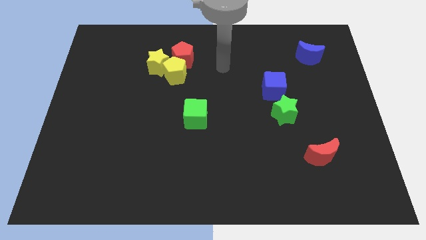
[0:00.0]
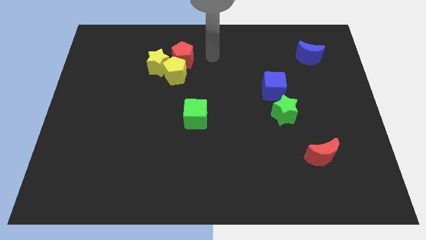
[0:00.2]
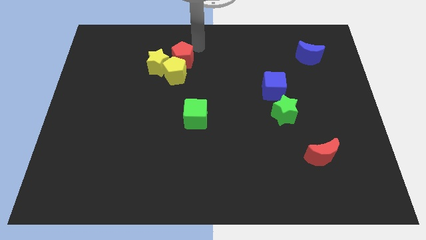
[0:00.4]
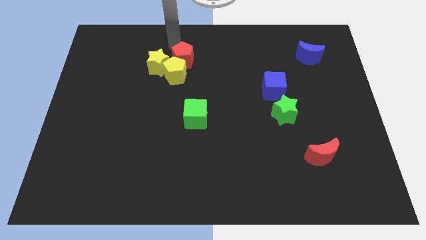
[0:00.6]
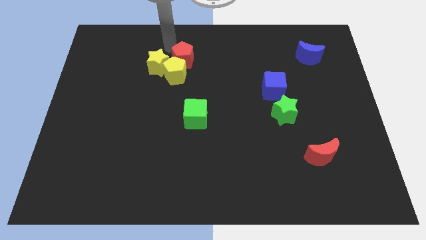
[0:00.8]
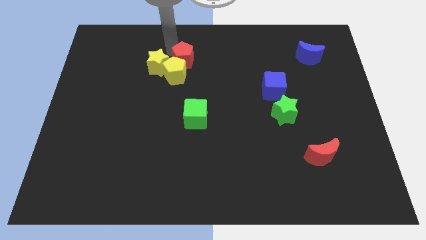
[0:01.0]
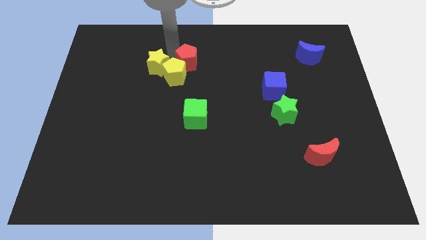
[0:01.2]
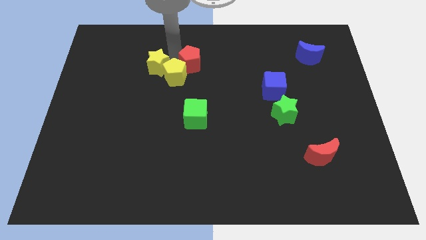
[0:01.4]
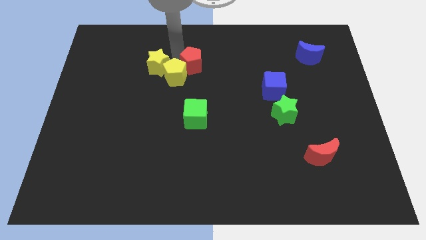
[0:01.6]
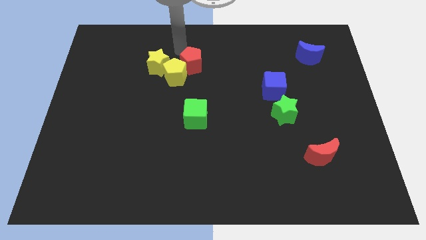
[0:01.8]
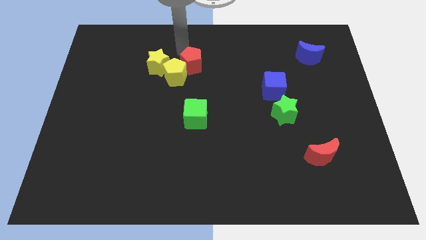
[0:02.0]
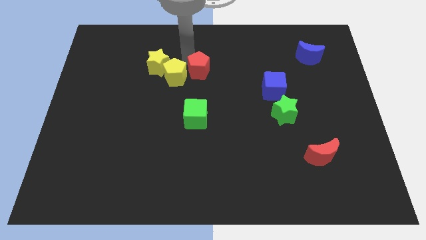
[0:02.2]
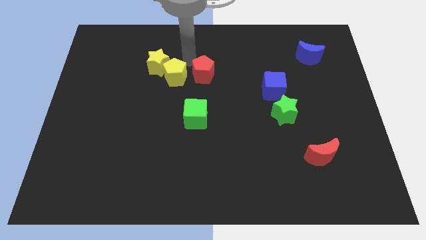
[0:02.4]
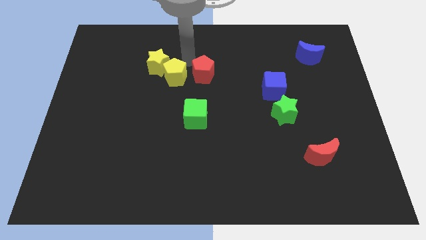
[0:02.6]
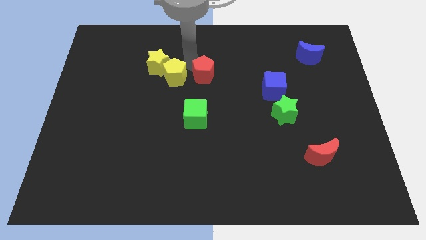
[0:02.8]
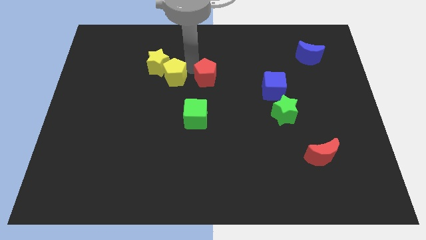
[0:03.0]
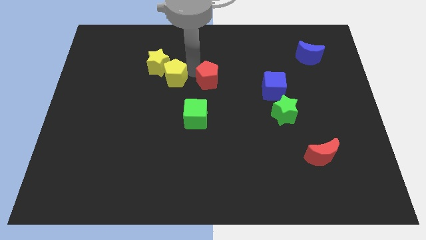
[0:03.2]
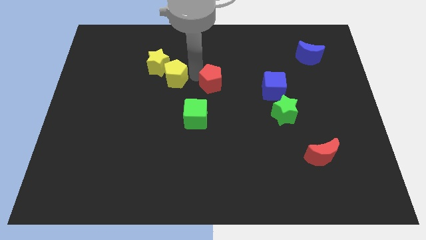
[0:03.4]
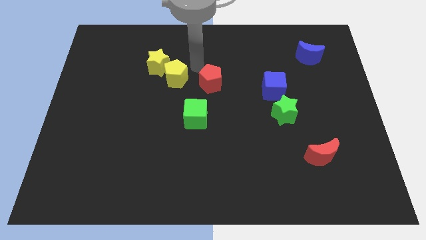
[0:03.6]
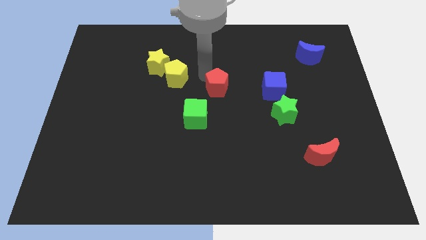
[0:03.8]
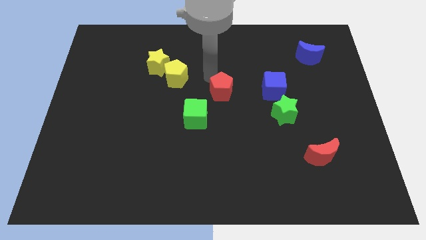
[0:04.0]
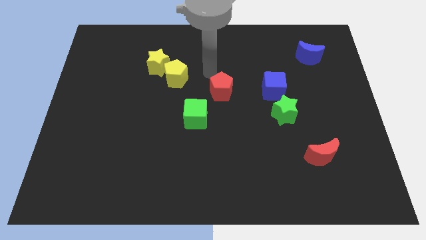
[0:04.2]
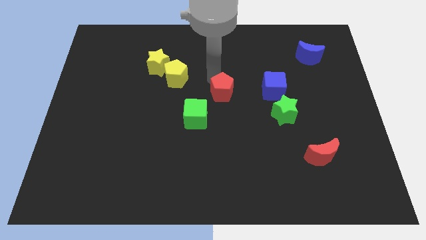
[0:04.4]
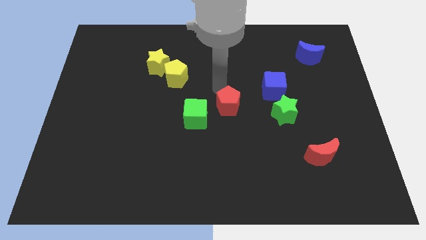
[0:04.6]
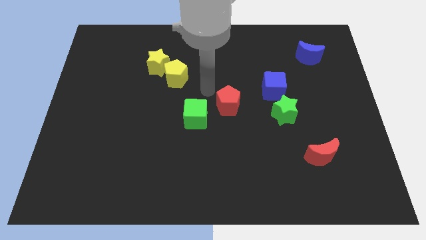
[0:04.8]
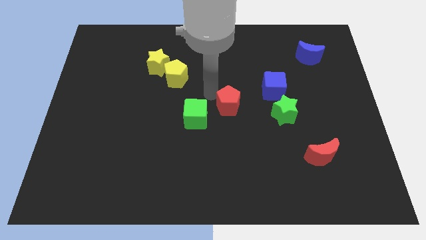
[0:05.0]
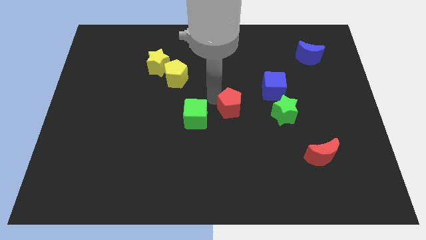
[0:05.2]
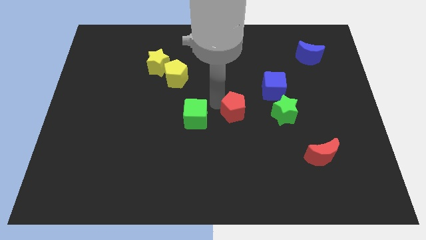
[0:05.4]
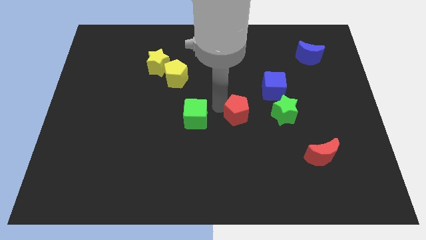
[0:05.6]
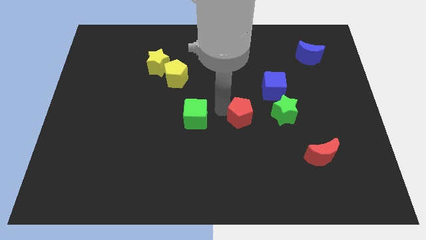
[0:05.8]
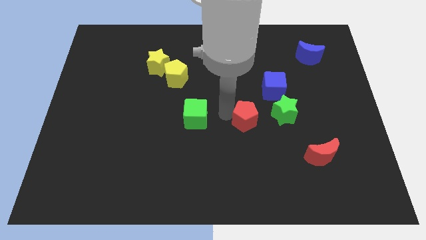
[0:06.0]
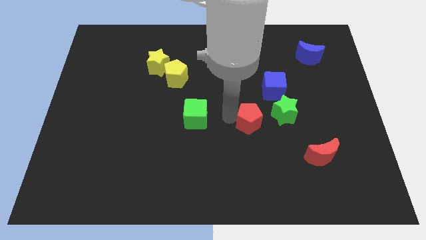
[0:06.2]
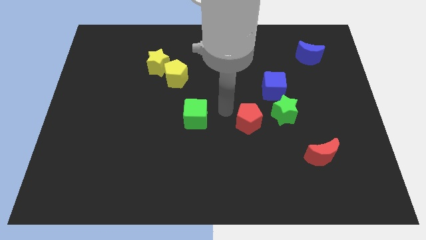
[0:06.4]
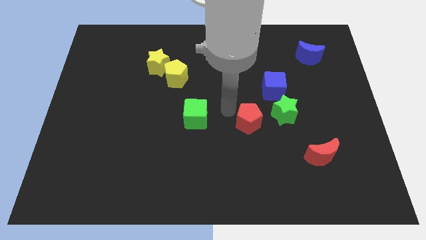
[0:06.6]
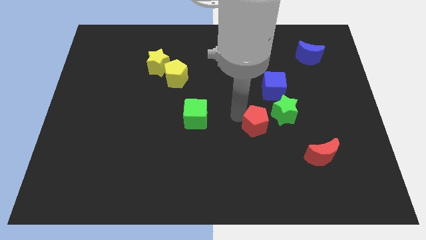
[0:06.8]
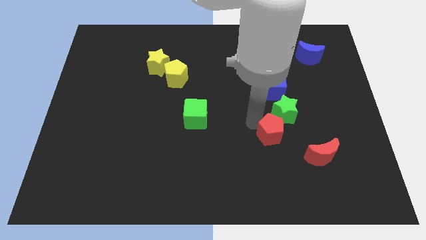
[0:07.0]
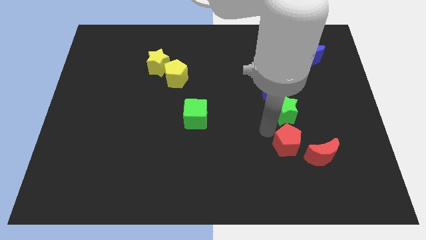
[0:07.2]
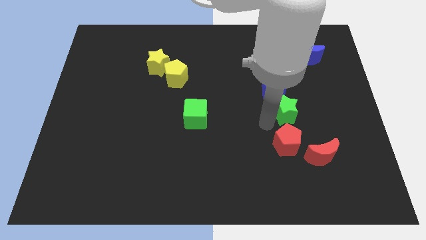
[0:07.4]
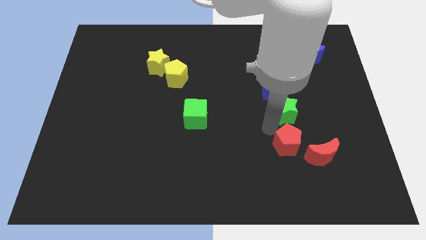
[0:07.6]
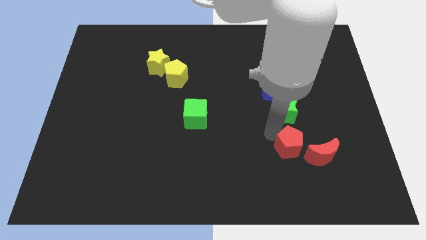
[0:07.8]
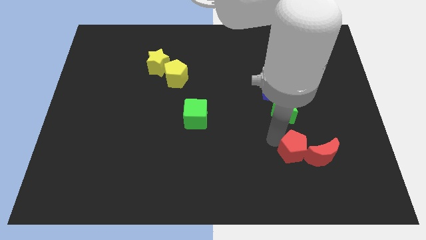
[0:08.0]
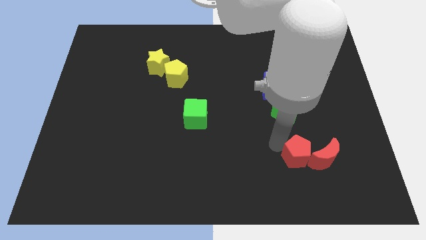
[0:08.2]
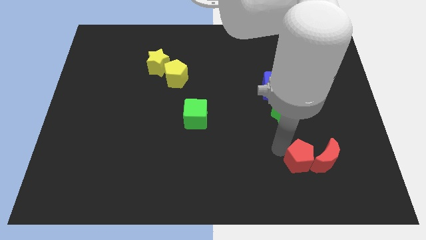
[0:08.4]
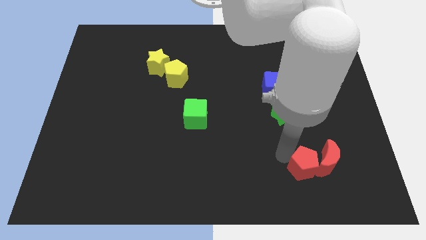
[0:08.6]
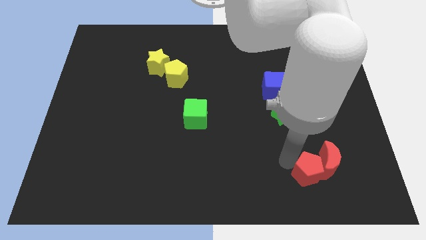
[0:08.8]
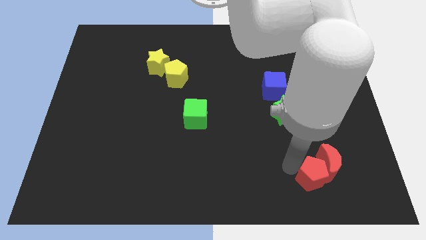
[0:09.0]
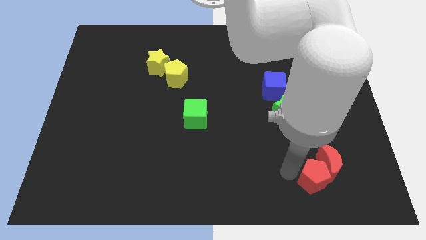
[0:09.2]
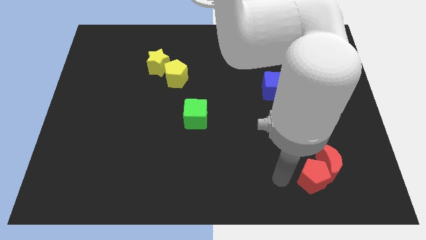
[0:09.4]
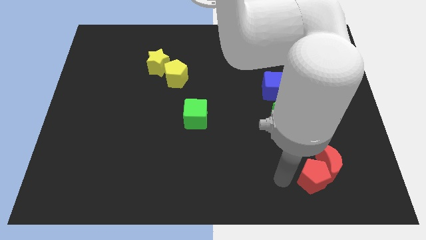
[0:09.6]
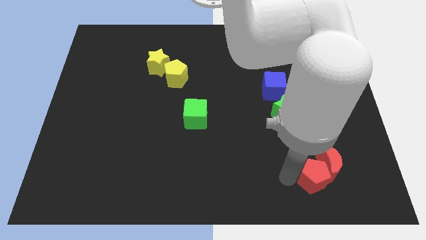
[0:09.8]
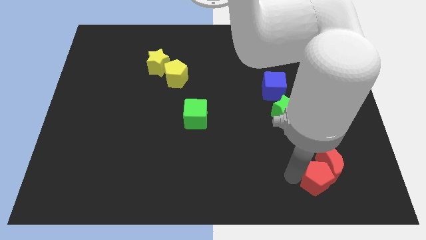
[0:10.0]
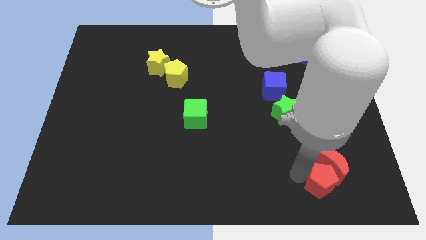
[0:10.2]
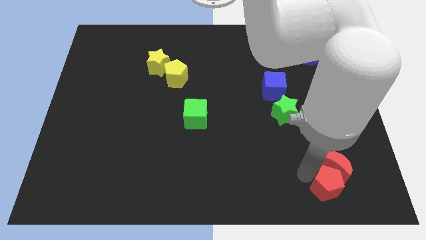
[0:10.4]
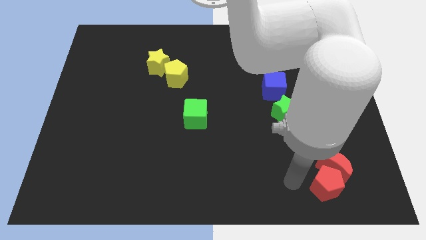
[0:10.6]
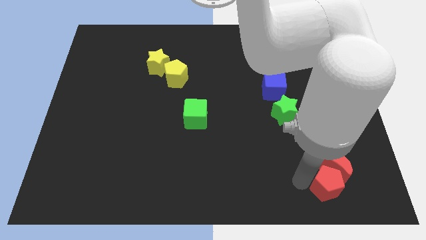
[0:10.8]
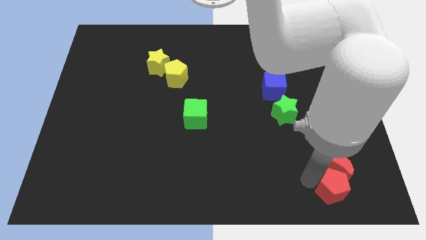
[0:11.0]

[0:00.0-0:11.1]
slide the red pentagon diagonally down and to the right of the red moon

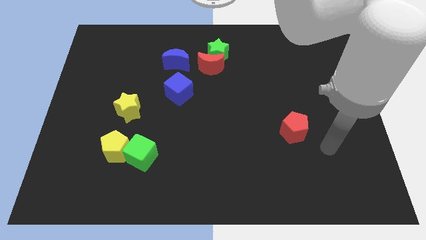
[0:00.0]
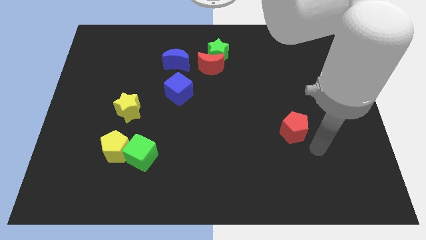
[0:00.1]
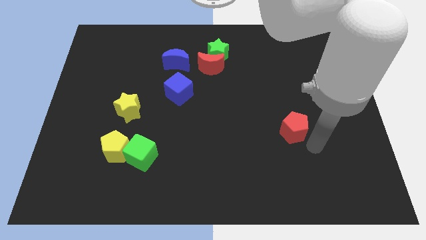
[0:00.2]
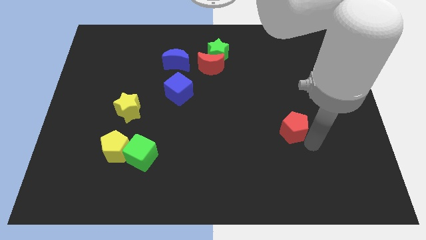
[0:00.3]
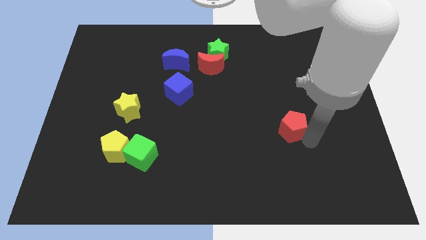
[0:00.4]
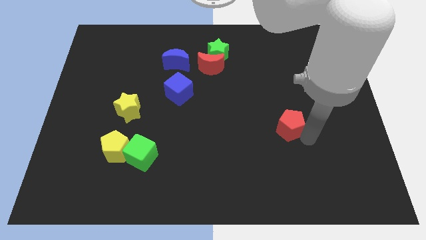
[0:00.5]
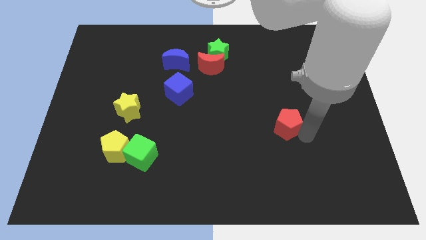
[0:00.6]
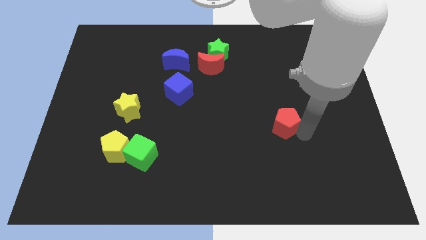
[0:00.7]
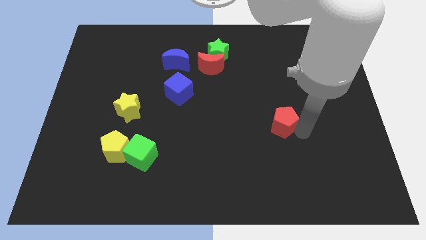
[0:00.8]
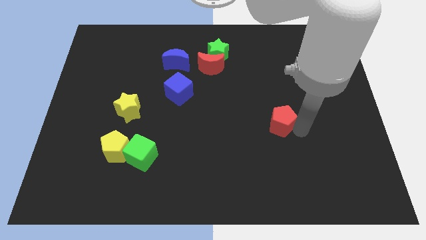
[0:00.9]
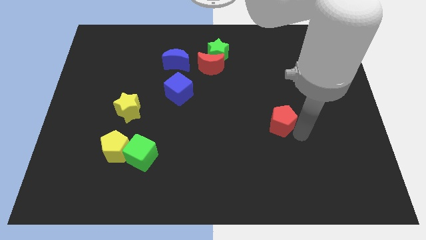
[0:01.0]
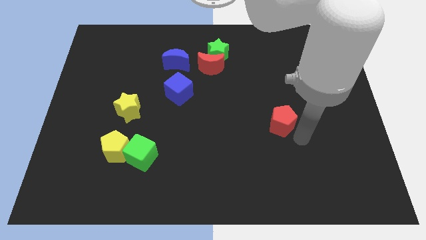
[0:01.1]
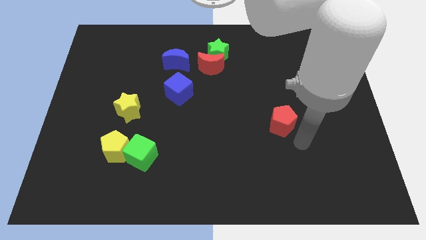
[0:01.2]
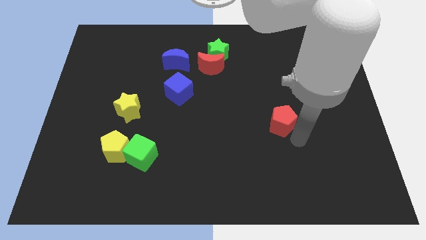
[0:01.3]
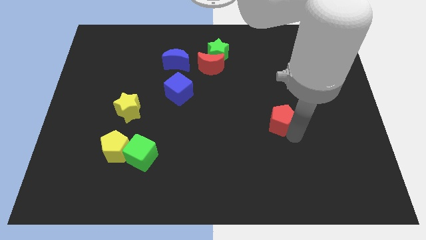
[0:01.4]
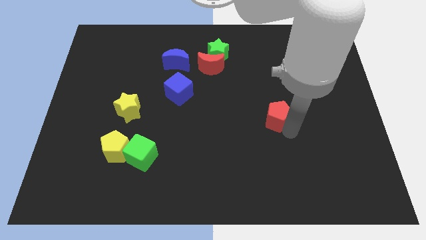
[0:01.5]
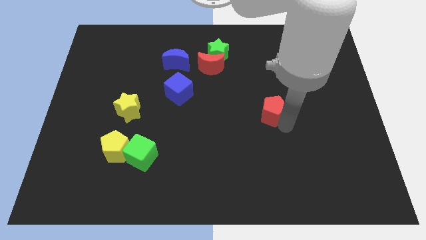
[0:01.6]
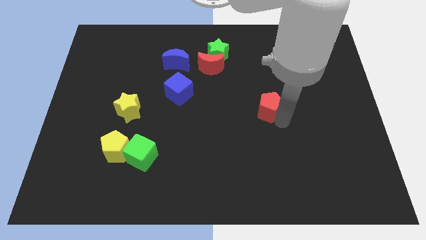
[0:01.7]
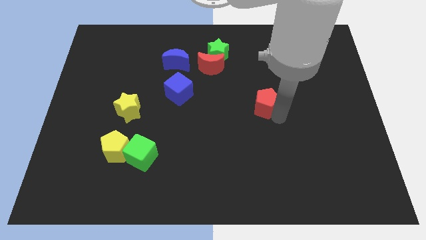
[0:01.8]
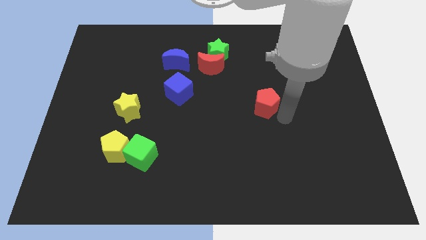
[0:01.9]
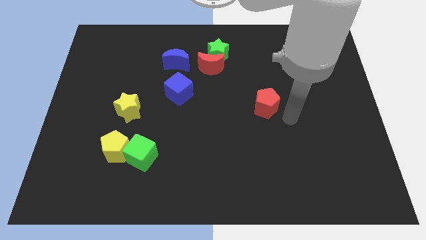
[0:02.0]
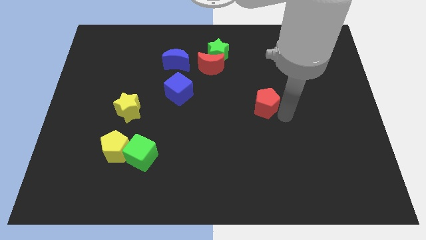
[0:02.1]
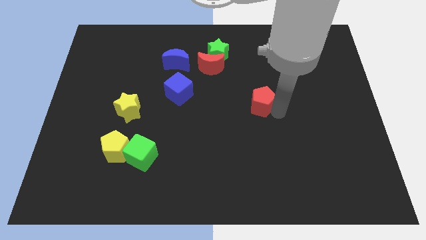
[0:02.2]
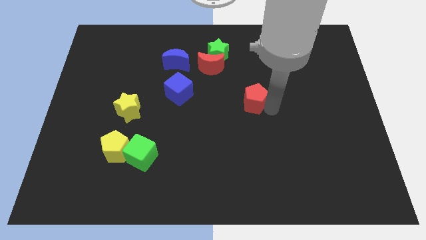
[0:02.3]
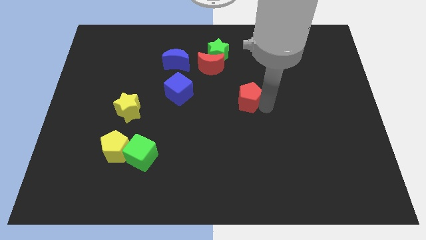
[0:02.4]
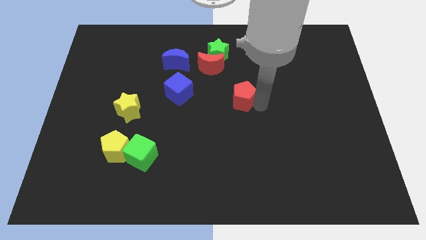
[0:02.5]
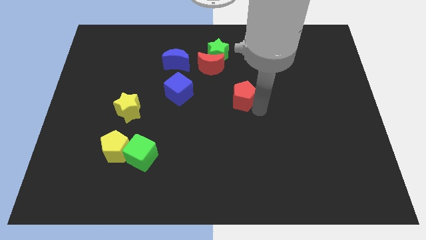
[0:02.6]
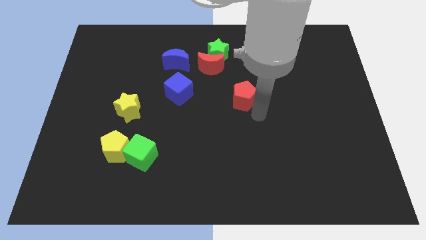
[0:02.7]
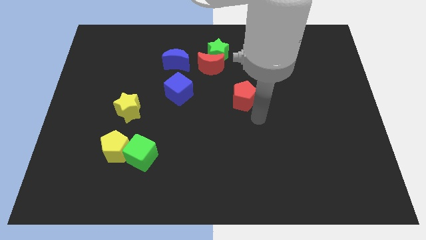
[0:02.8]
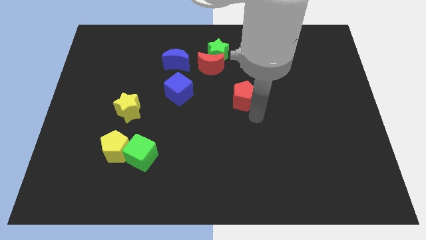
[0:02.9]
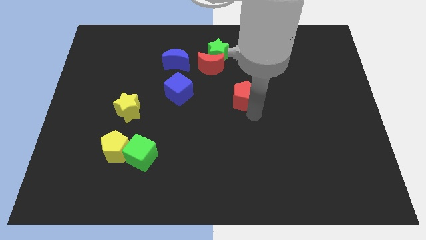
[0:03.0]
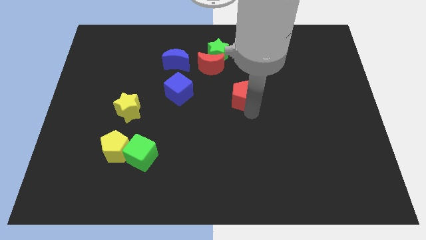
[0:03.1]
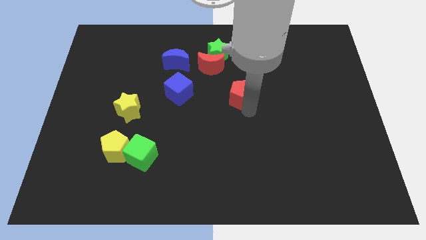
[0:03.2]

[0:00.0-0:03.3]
put the red pentagon to the bottom right of the red moon
